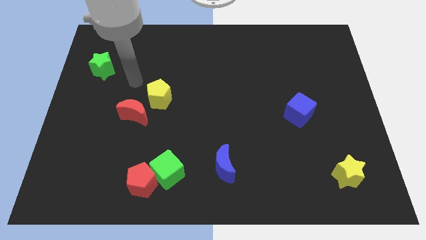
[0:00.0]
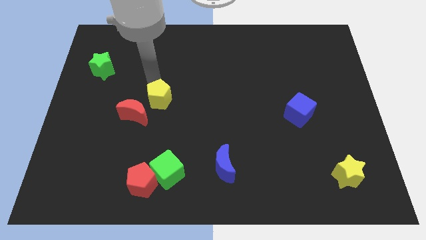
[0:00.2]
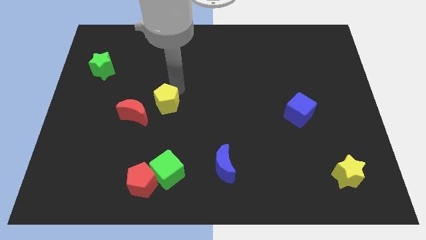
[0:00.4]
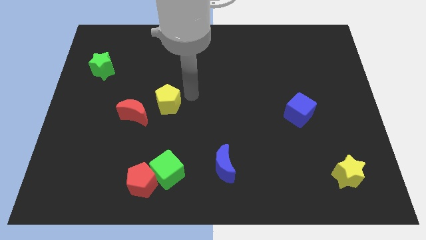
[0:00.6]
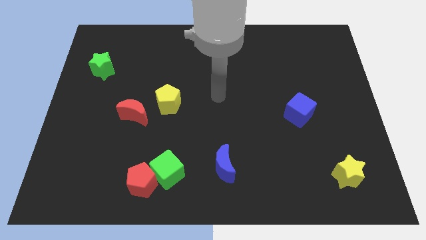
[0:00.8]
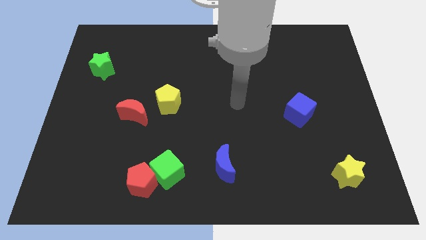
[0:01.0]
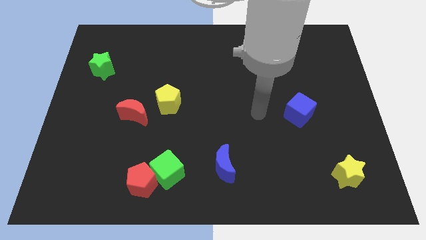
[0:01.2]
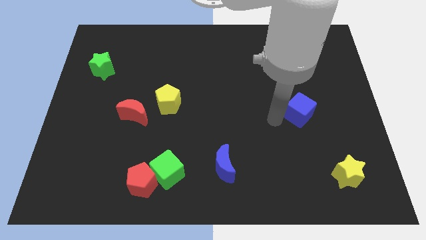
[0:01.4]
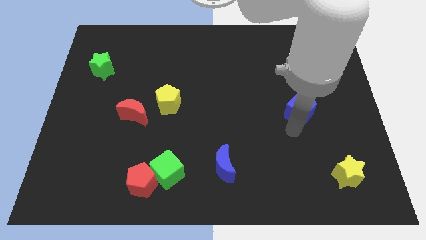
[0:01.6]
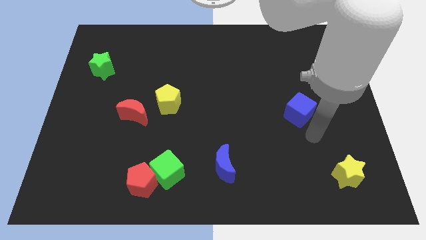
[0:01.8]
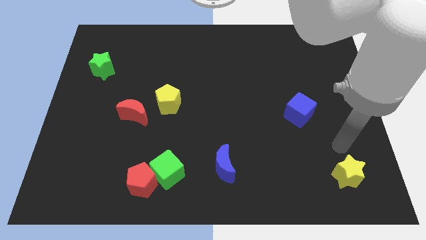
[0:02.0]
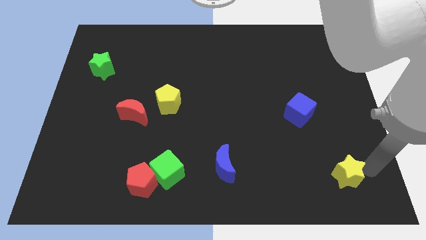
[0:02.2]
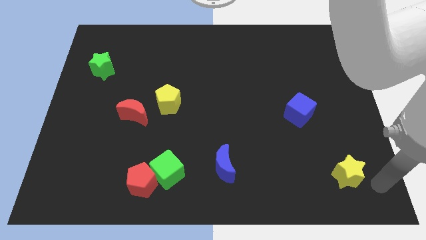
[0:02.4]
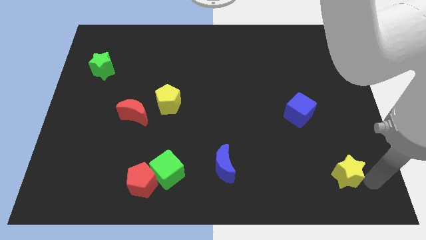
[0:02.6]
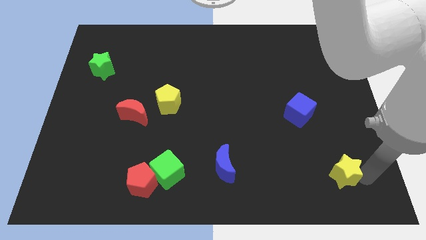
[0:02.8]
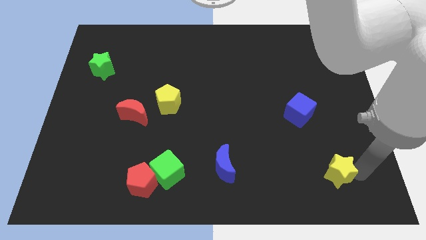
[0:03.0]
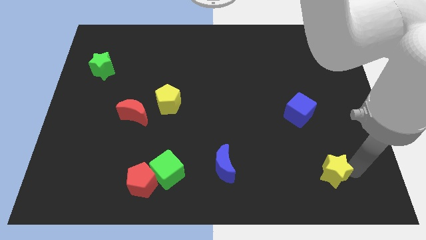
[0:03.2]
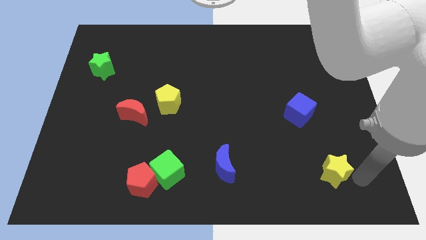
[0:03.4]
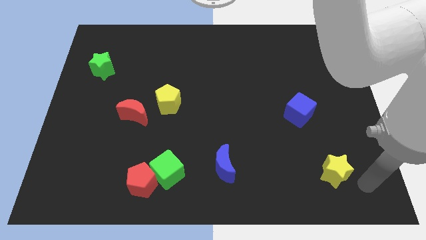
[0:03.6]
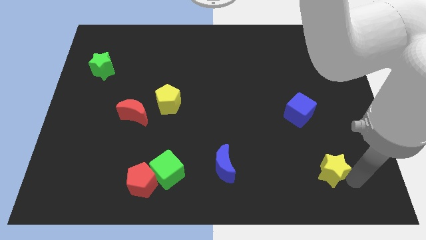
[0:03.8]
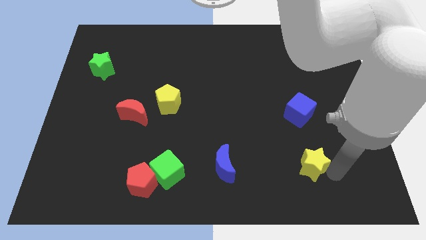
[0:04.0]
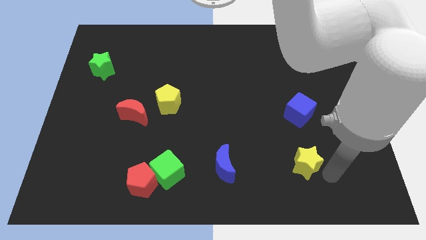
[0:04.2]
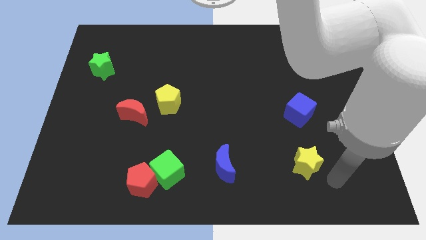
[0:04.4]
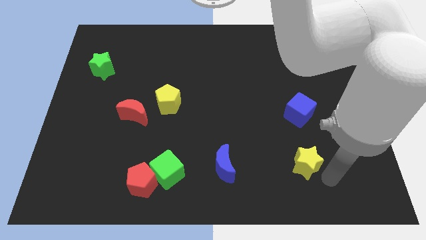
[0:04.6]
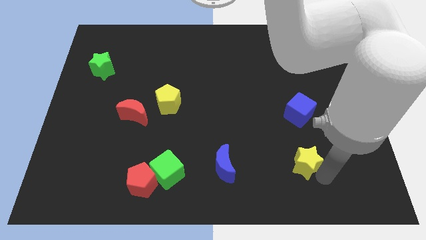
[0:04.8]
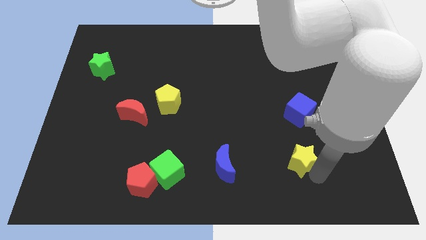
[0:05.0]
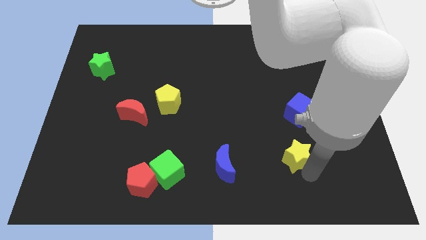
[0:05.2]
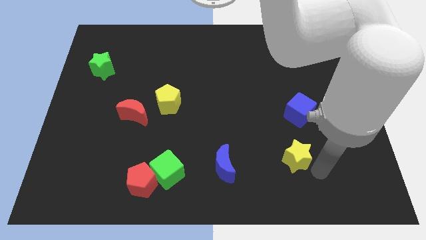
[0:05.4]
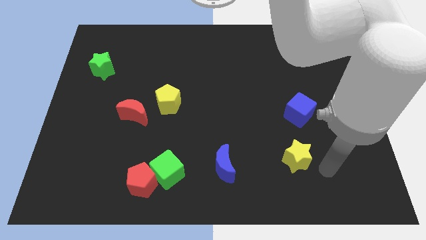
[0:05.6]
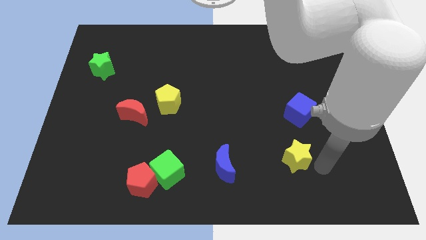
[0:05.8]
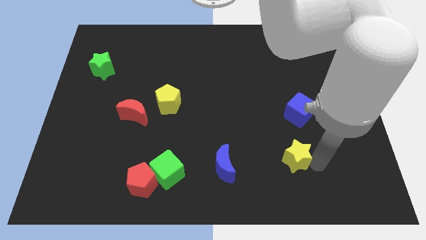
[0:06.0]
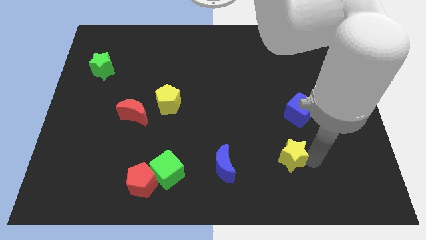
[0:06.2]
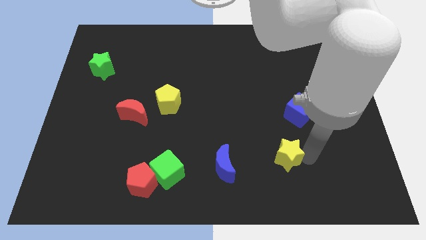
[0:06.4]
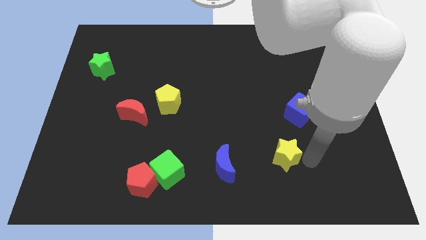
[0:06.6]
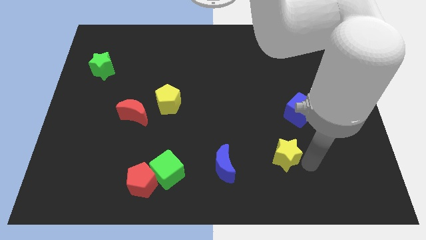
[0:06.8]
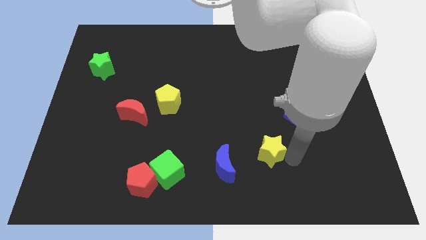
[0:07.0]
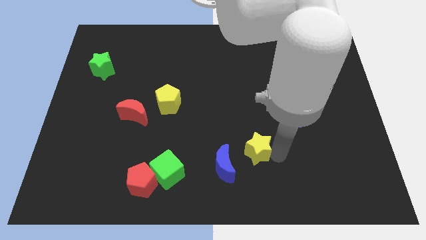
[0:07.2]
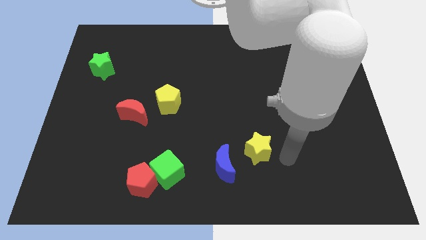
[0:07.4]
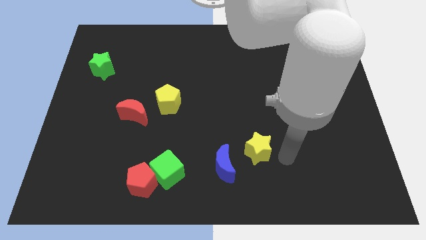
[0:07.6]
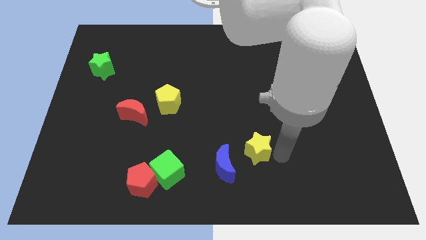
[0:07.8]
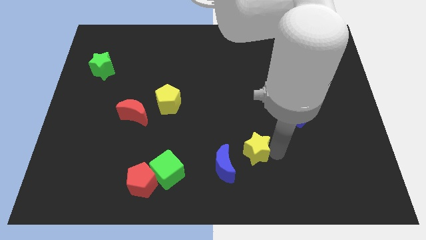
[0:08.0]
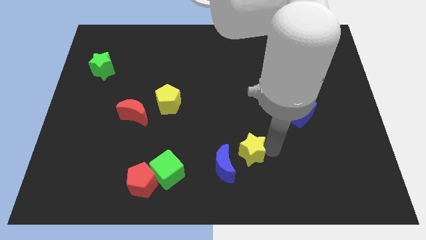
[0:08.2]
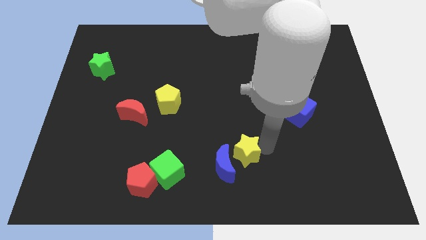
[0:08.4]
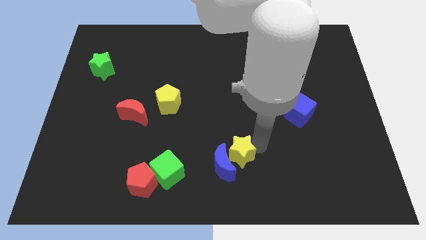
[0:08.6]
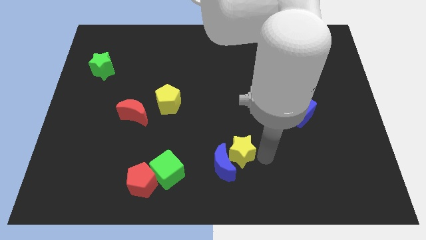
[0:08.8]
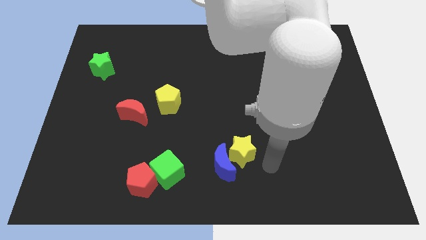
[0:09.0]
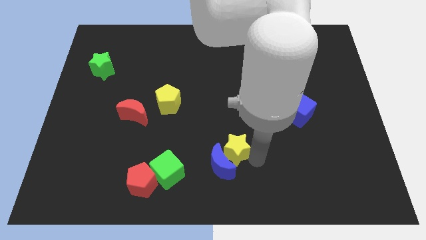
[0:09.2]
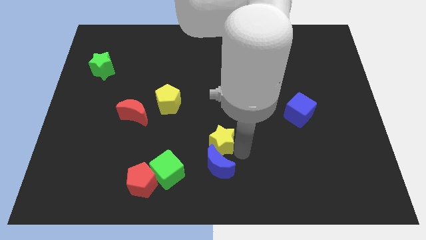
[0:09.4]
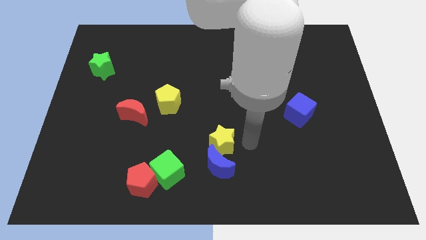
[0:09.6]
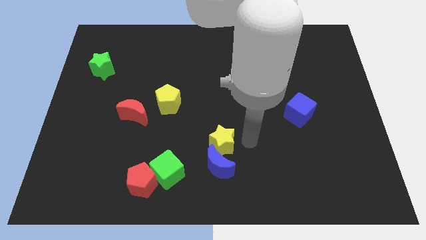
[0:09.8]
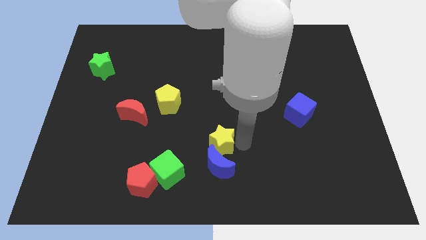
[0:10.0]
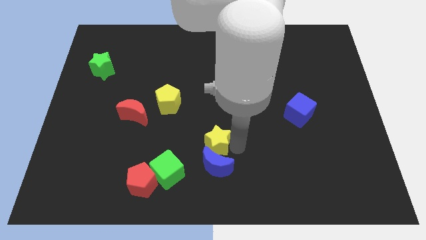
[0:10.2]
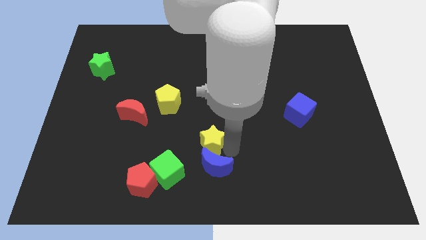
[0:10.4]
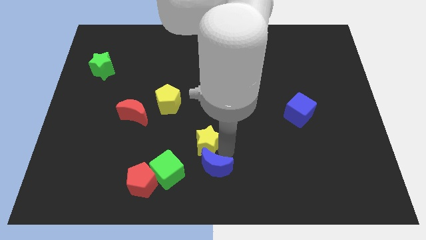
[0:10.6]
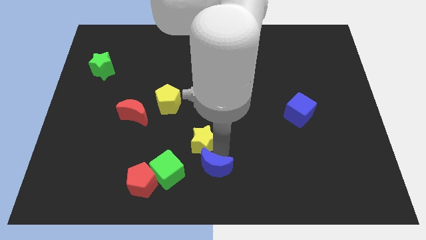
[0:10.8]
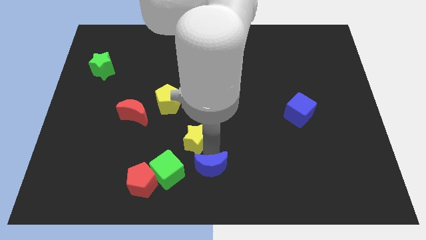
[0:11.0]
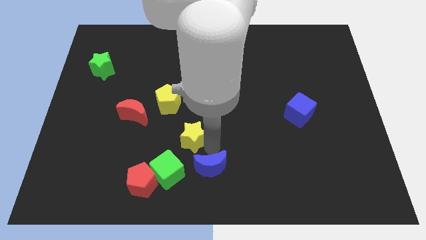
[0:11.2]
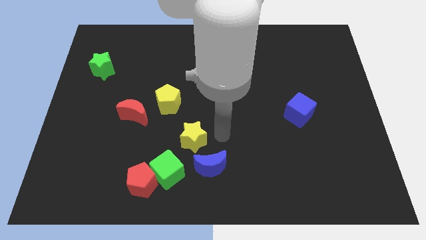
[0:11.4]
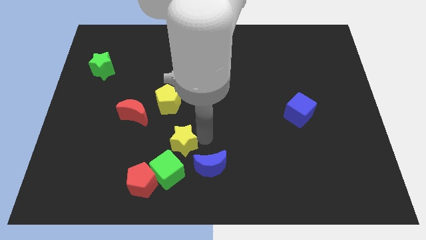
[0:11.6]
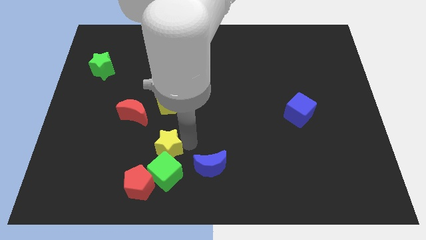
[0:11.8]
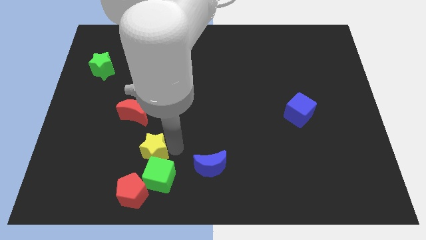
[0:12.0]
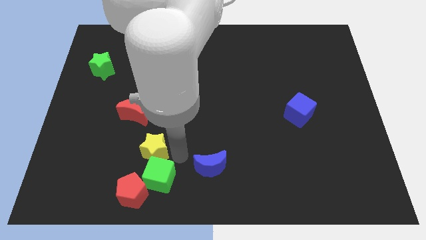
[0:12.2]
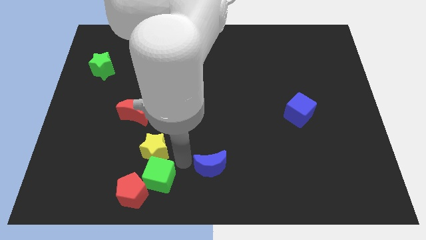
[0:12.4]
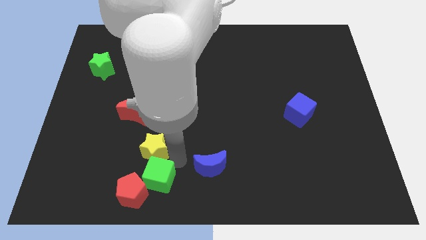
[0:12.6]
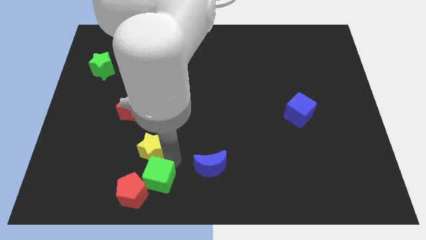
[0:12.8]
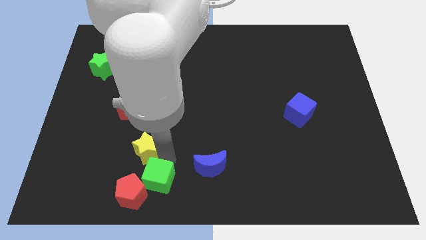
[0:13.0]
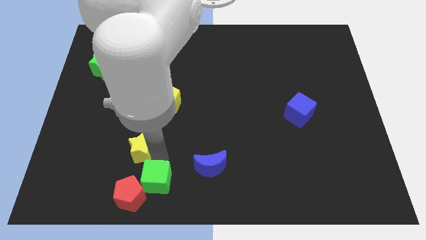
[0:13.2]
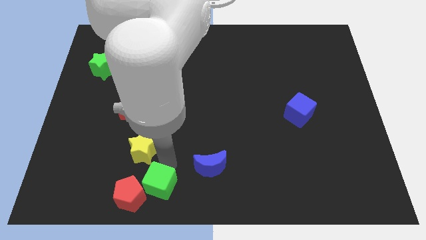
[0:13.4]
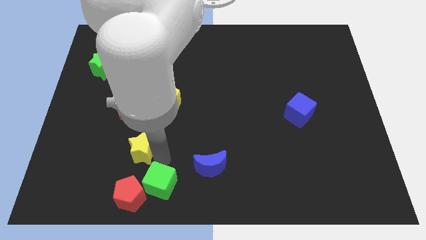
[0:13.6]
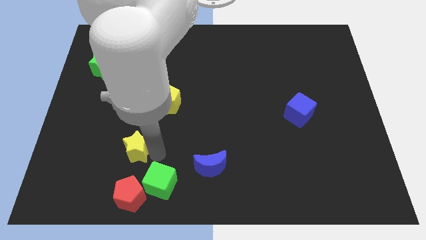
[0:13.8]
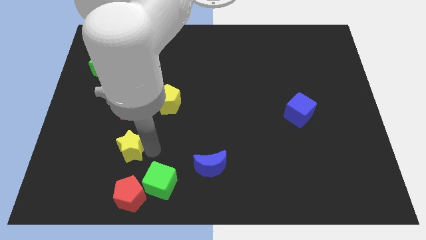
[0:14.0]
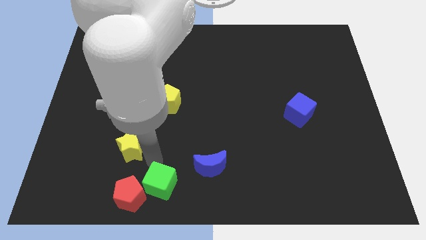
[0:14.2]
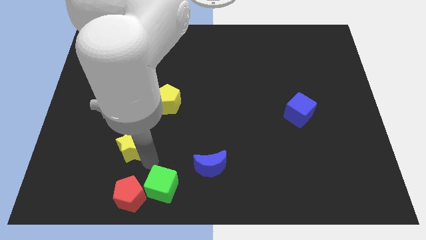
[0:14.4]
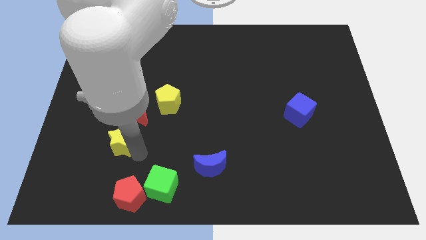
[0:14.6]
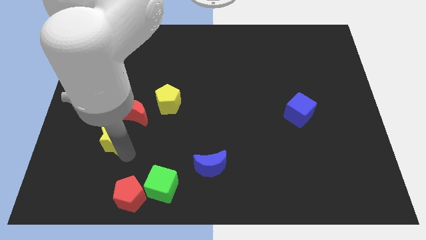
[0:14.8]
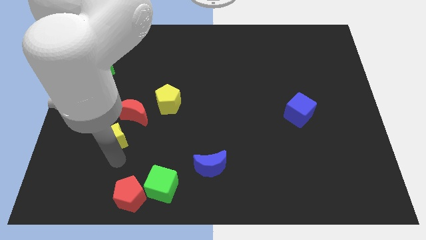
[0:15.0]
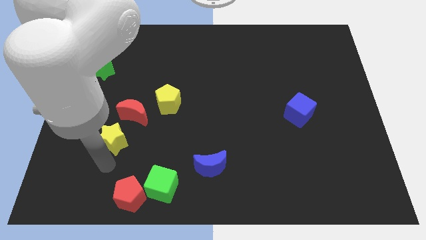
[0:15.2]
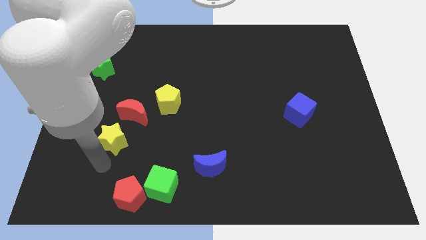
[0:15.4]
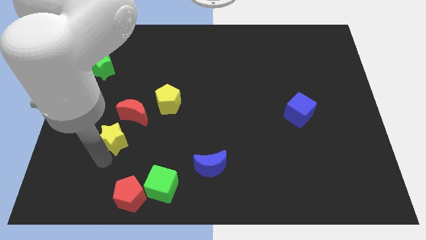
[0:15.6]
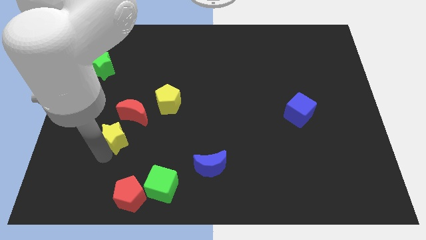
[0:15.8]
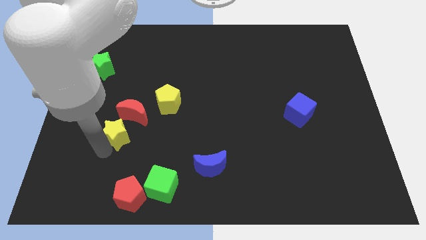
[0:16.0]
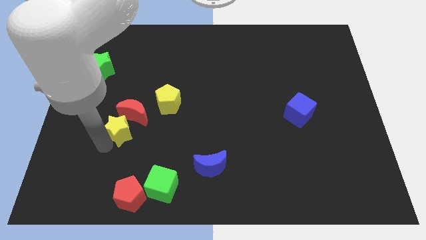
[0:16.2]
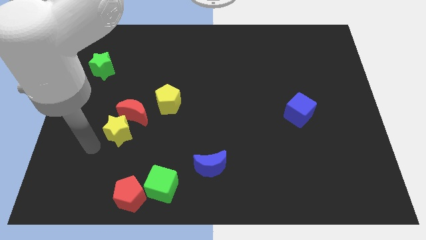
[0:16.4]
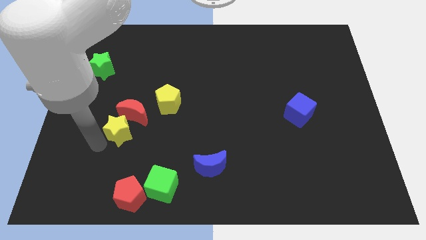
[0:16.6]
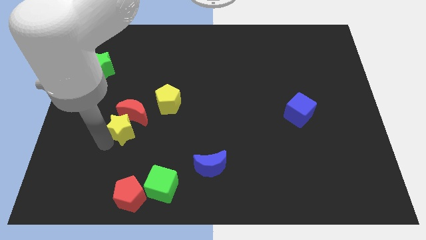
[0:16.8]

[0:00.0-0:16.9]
push the yellow star to the bottom left side of the yellow pentagon
